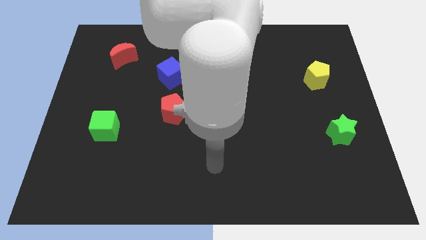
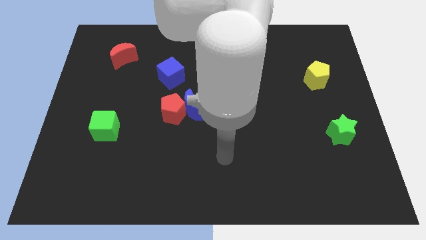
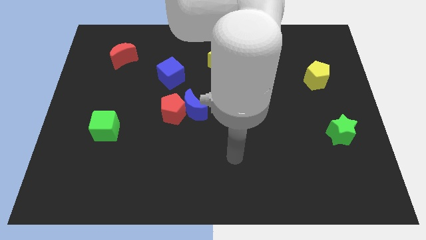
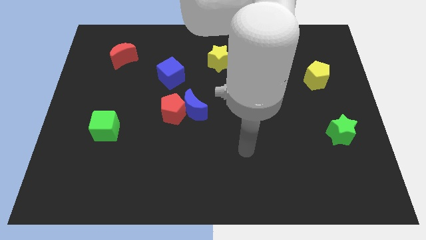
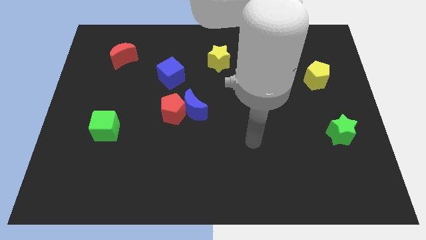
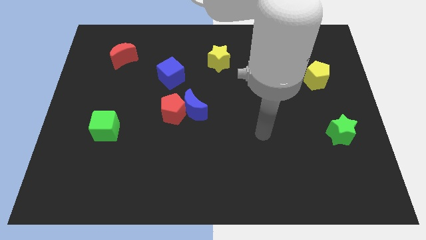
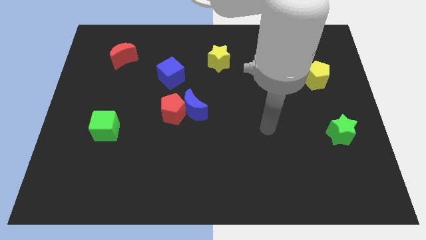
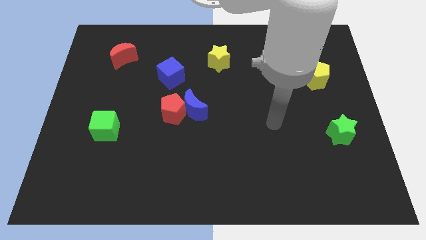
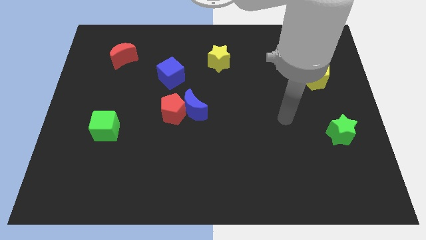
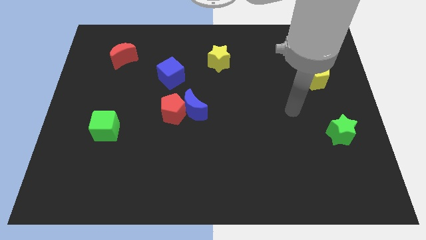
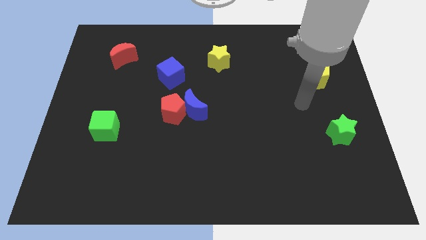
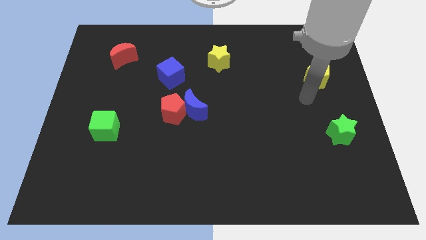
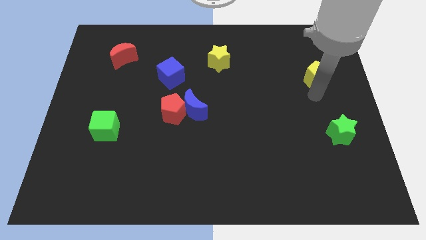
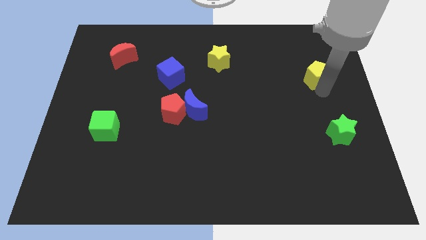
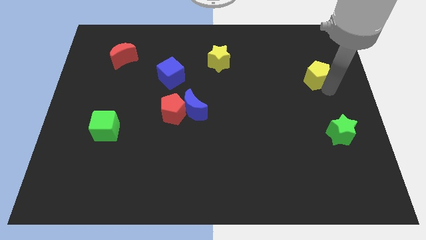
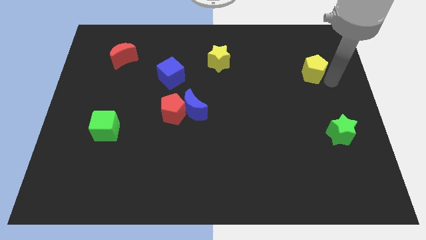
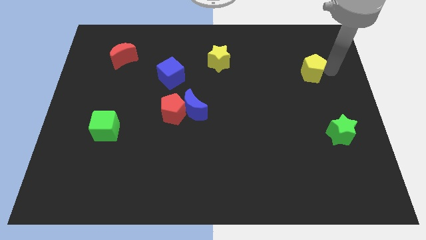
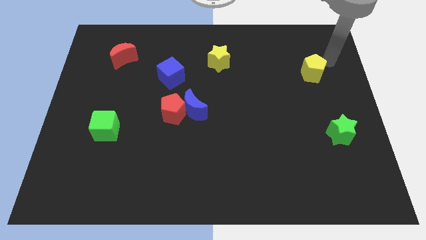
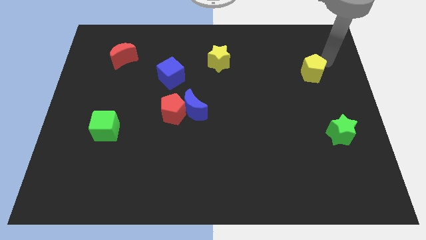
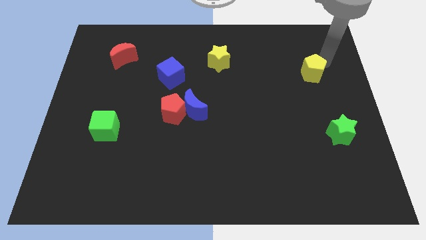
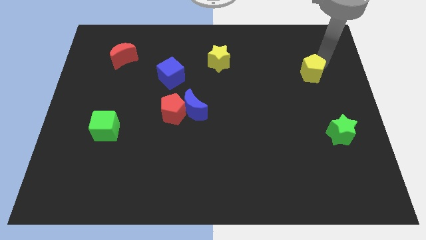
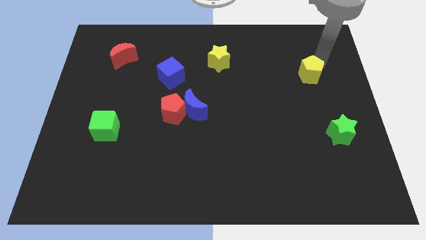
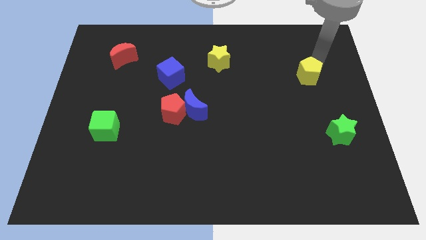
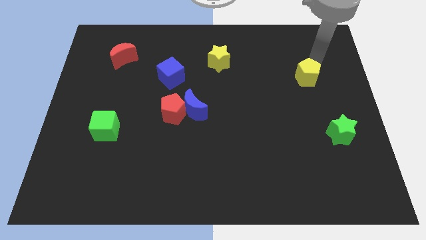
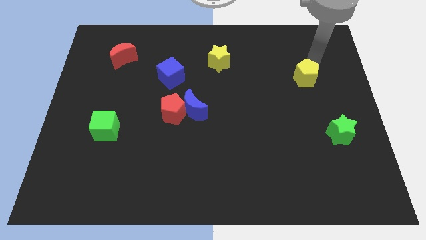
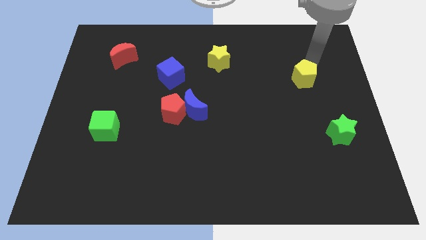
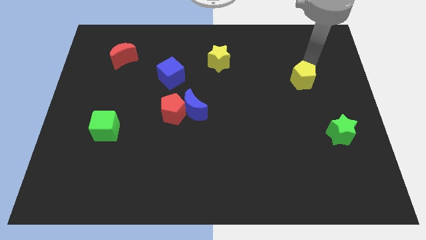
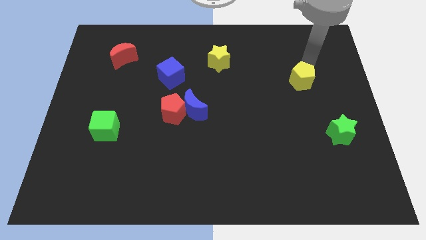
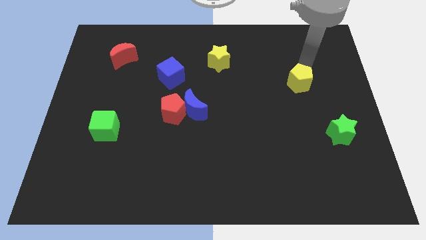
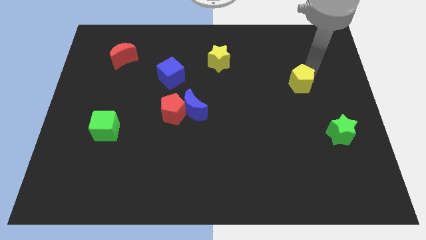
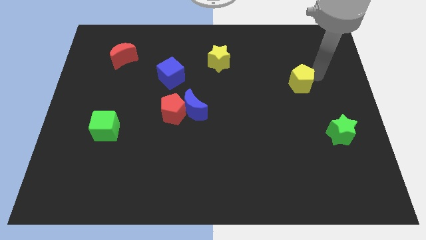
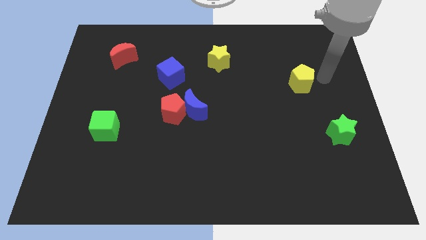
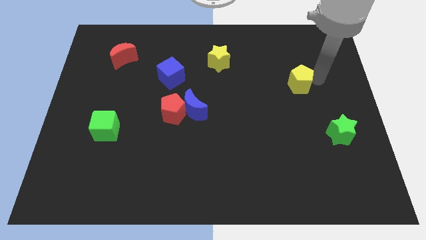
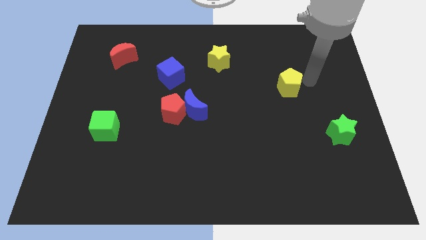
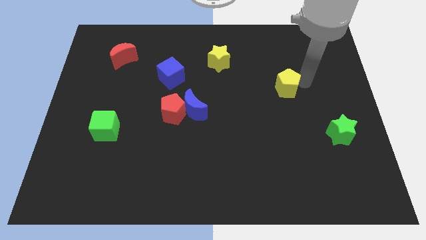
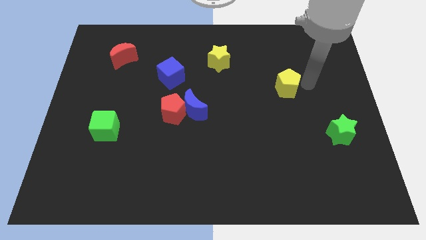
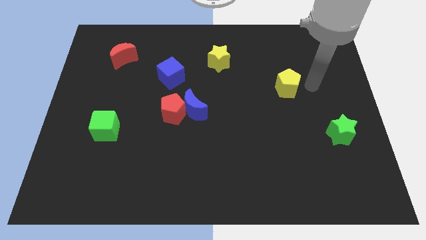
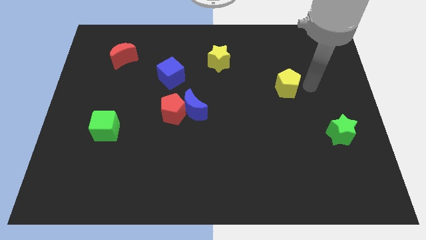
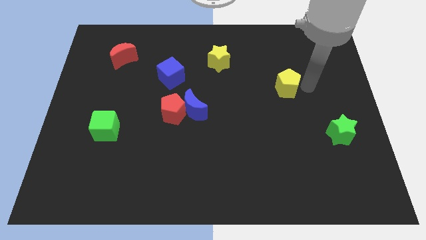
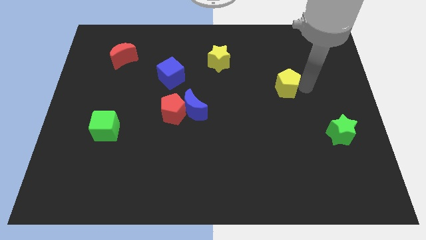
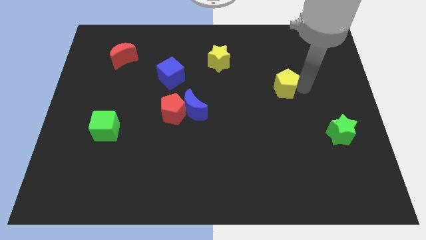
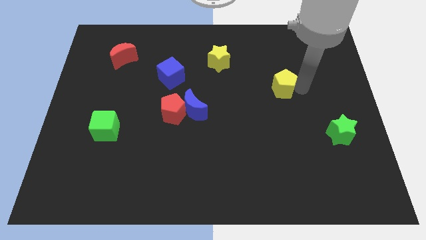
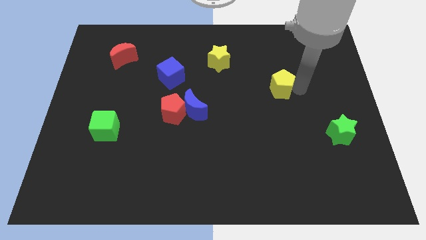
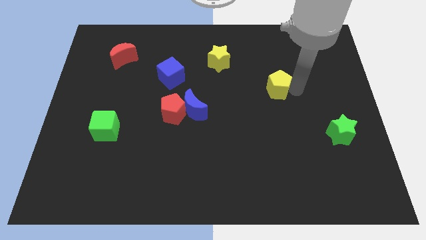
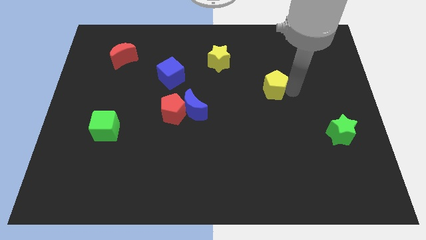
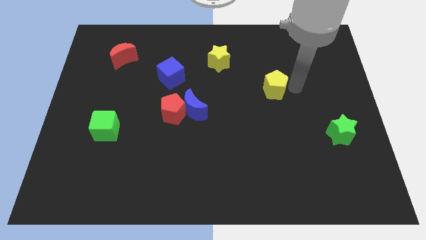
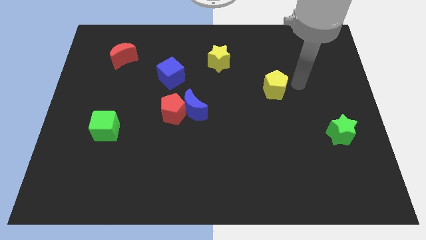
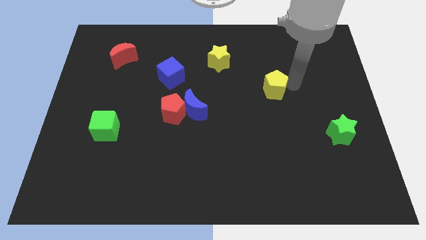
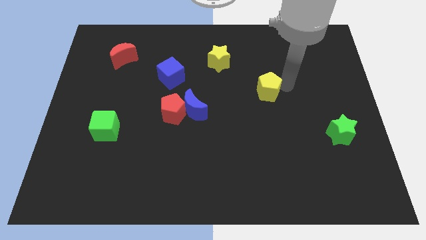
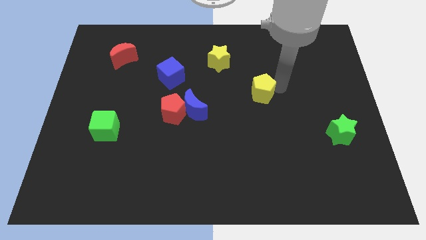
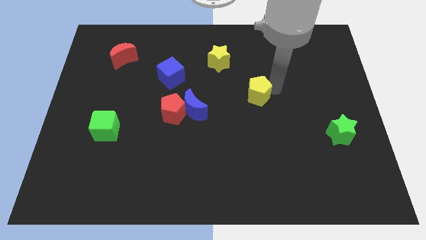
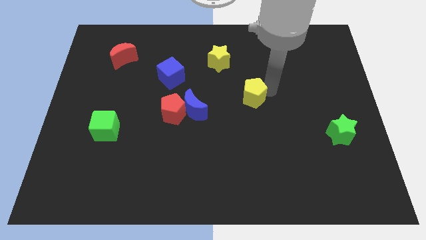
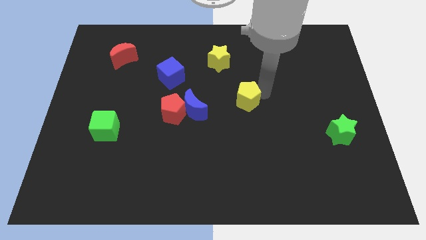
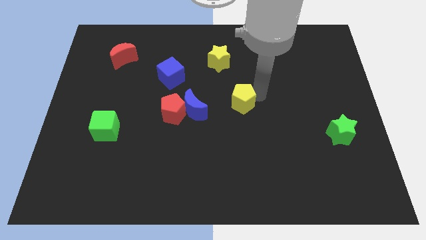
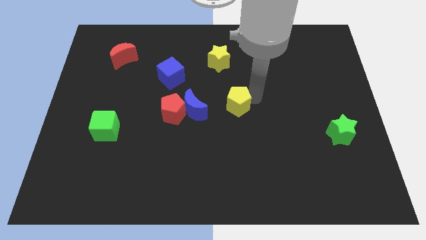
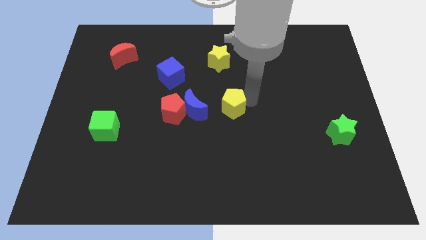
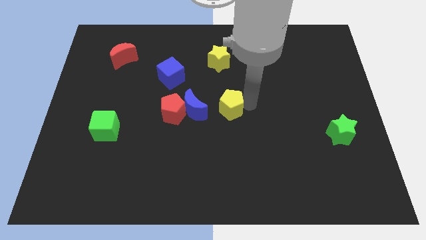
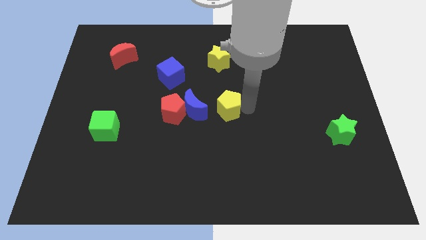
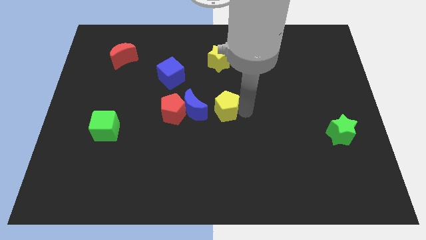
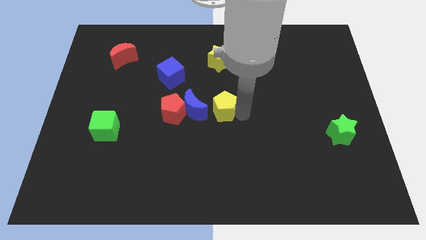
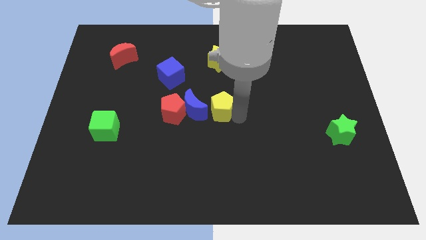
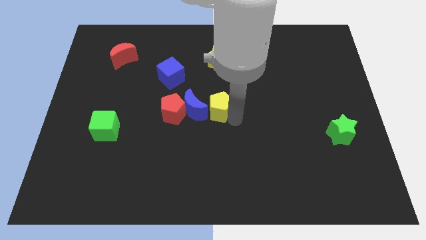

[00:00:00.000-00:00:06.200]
slide the yellow pentagon close to the blue moon

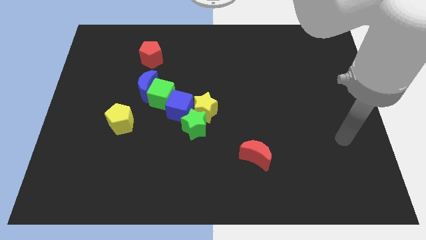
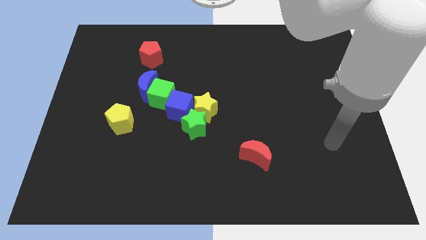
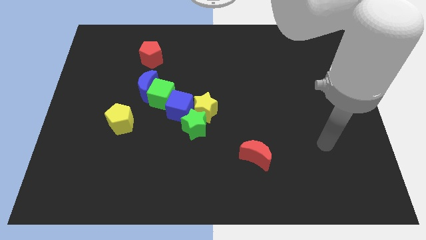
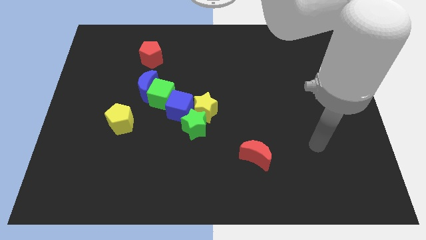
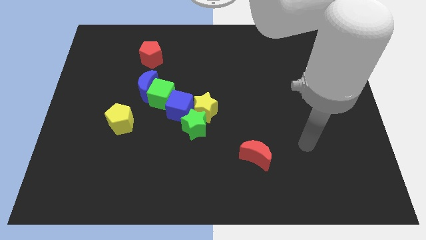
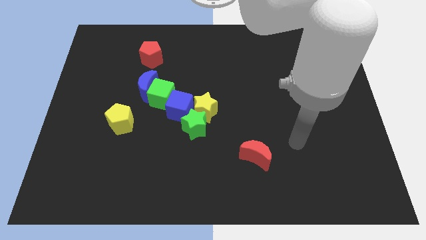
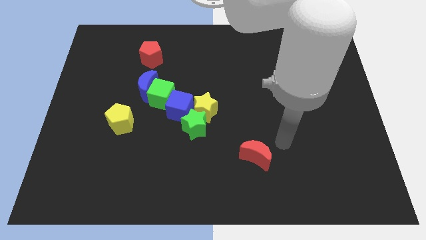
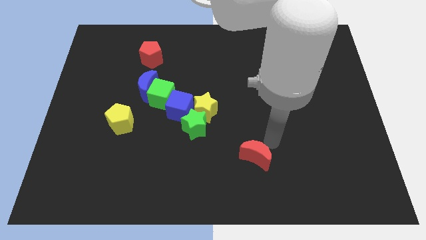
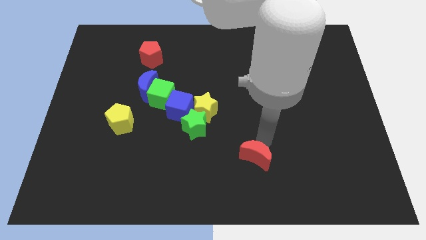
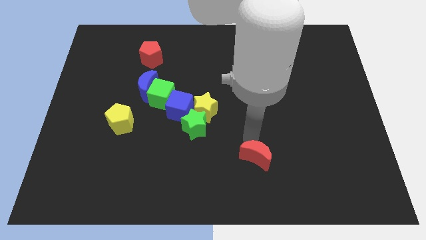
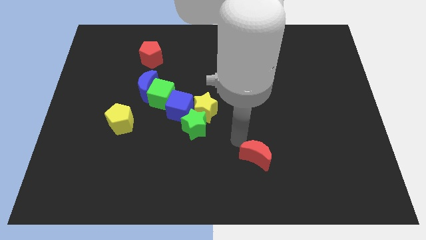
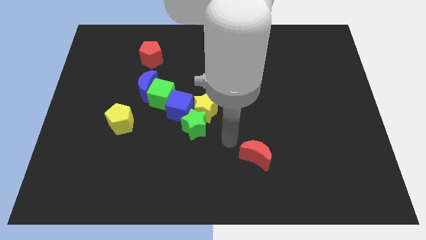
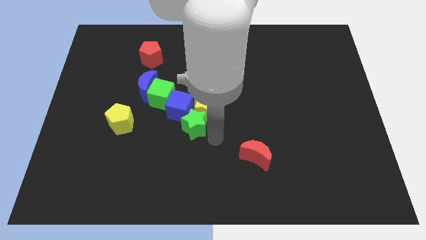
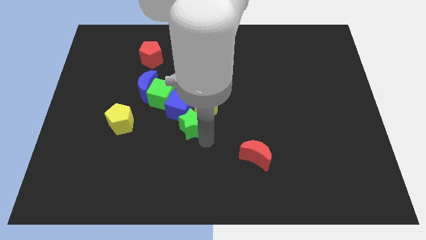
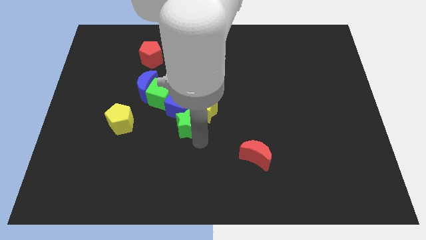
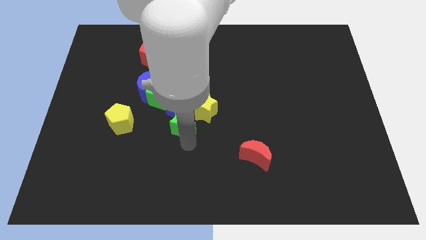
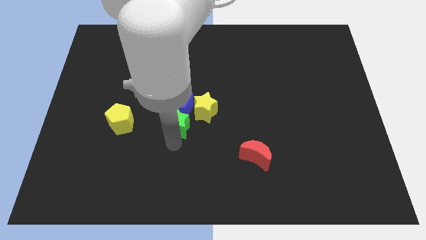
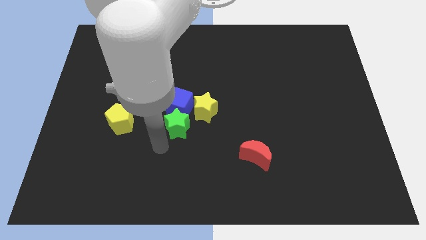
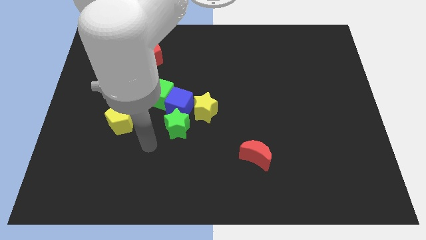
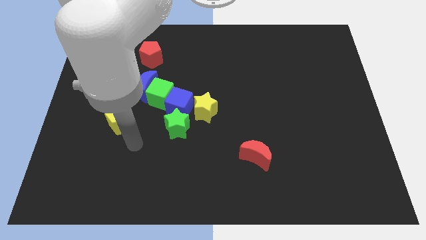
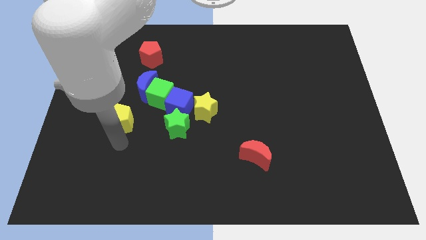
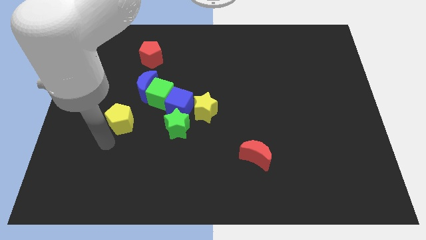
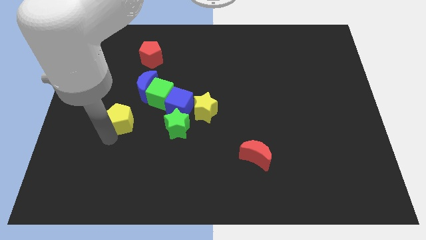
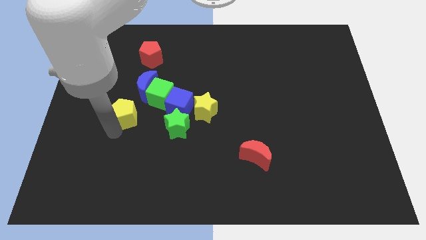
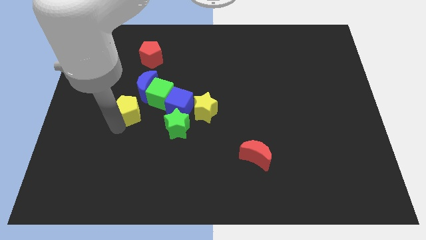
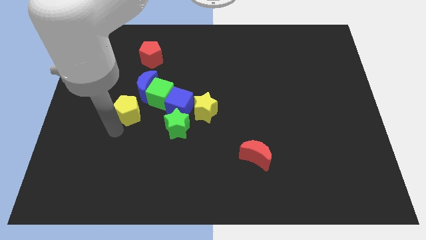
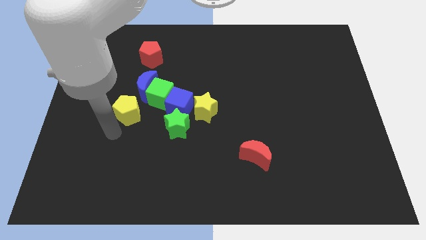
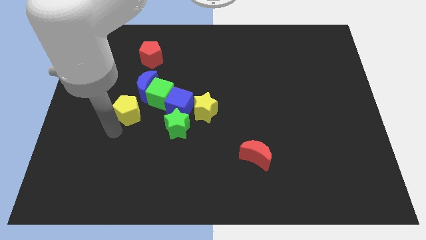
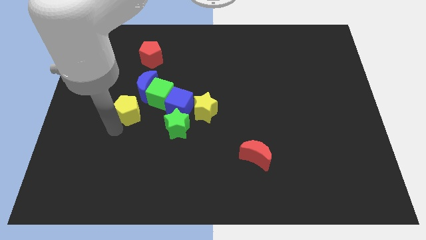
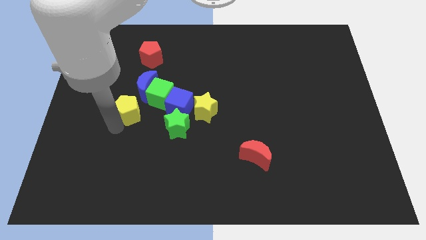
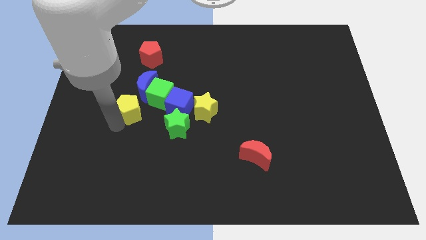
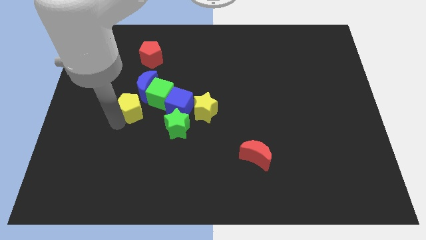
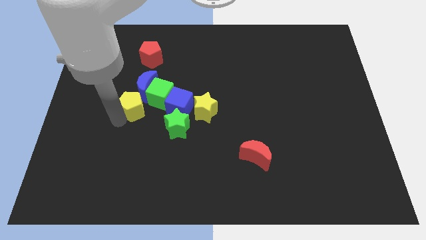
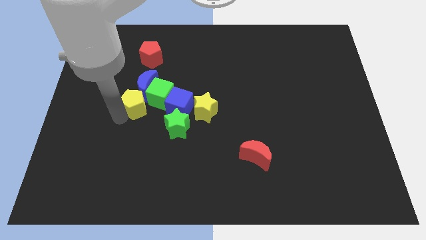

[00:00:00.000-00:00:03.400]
move the yellow pentagon next to the blue moon
